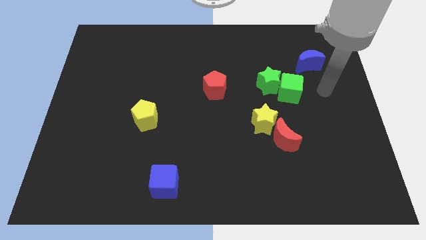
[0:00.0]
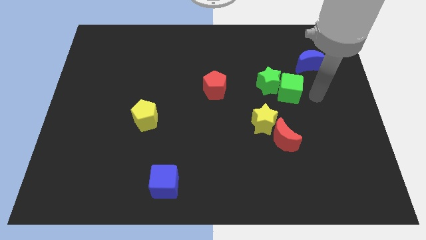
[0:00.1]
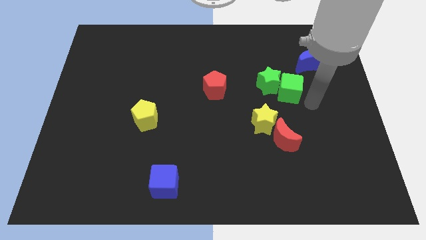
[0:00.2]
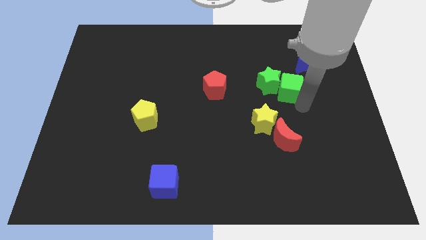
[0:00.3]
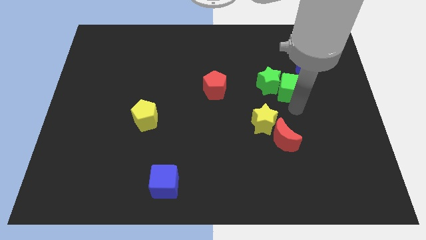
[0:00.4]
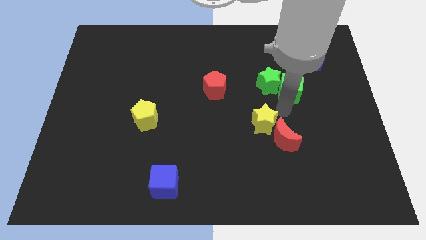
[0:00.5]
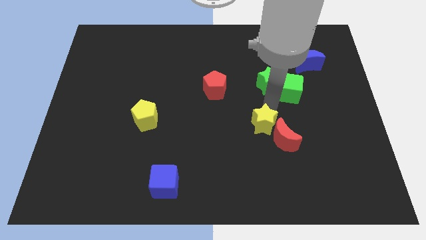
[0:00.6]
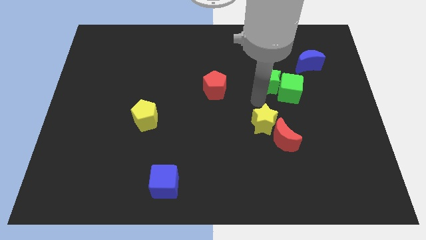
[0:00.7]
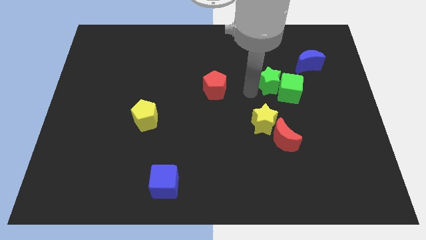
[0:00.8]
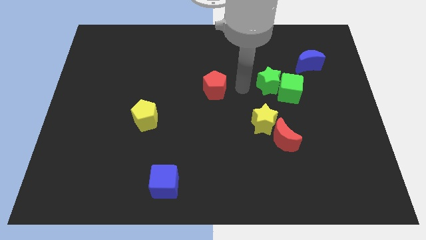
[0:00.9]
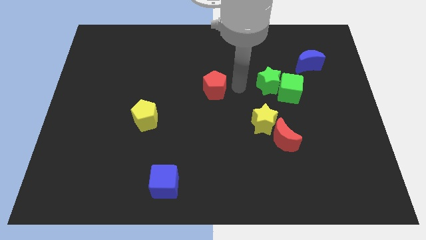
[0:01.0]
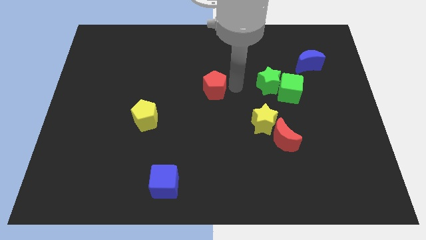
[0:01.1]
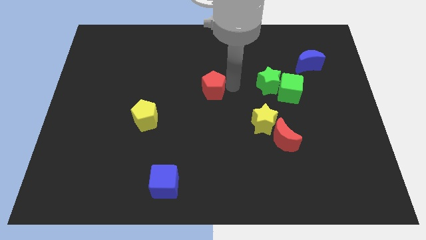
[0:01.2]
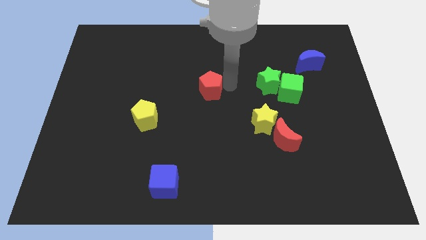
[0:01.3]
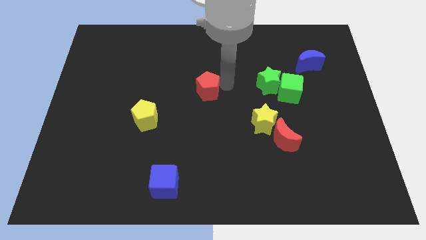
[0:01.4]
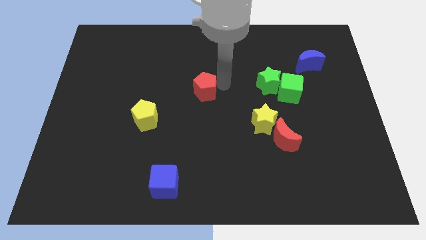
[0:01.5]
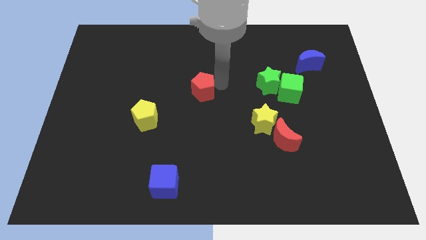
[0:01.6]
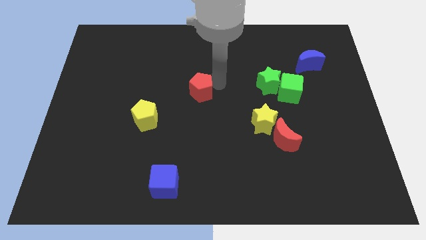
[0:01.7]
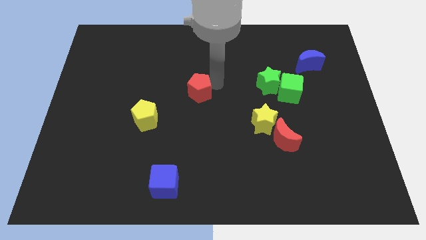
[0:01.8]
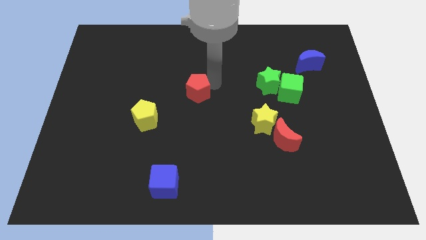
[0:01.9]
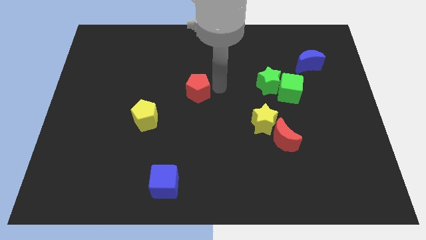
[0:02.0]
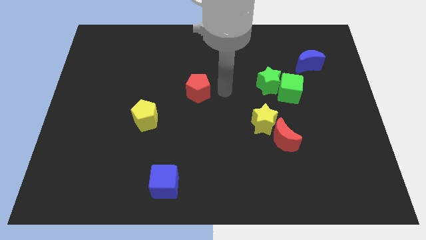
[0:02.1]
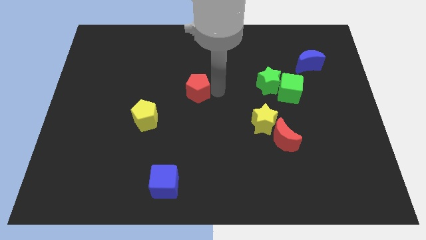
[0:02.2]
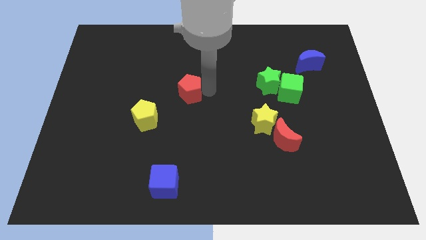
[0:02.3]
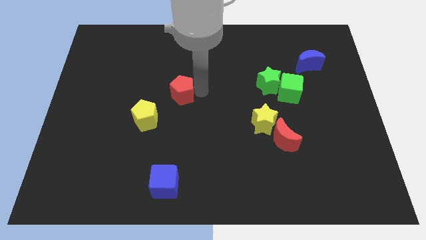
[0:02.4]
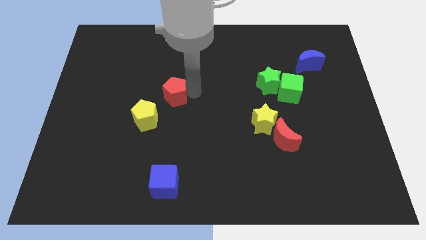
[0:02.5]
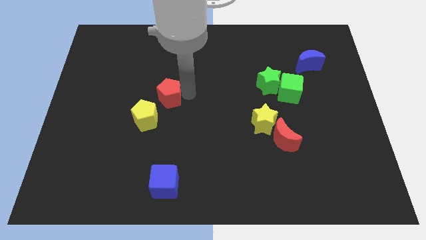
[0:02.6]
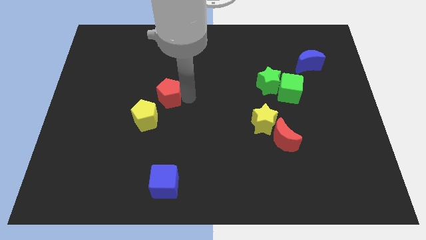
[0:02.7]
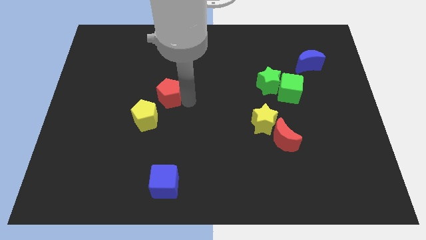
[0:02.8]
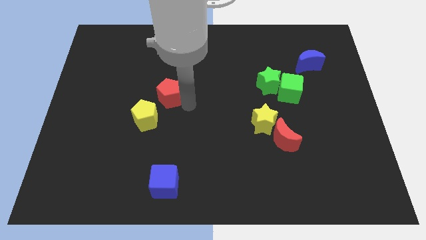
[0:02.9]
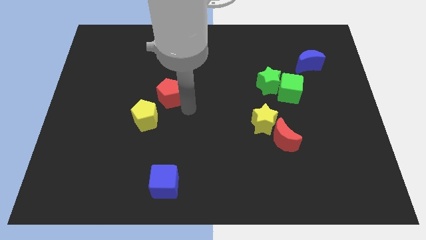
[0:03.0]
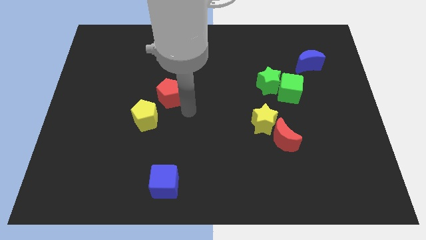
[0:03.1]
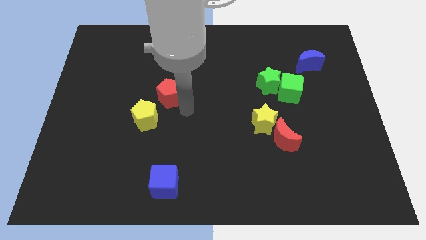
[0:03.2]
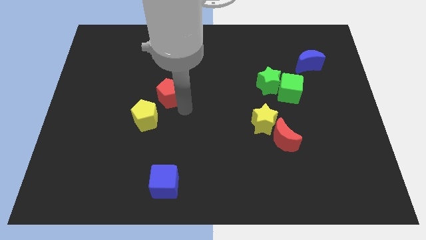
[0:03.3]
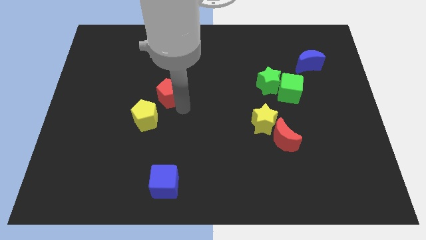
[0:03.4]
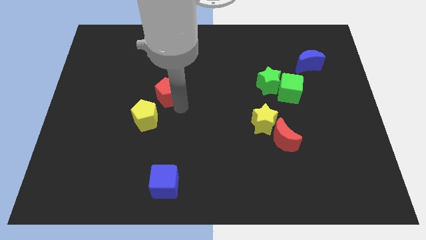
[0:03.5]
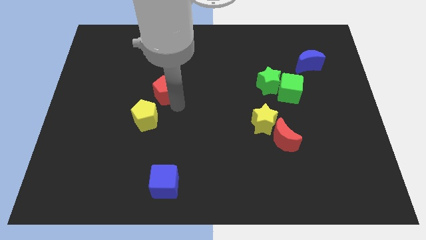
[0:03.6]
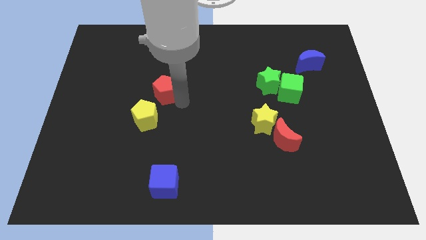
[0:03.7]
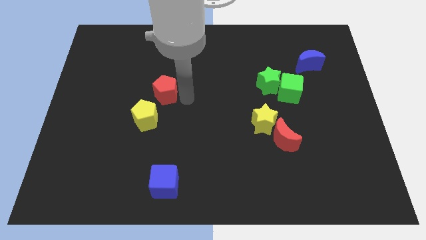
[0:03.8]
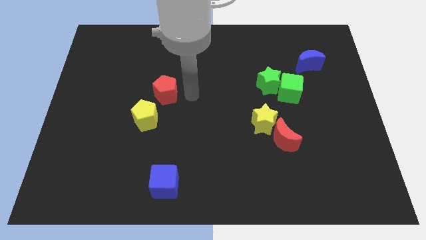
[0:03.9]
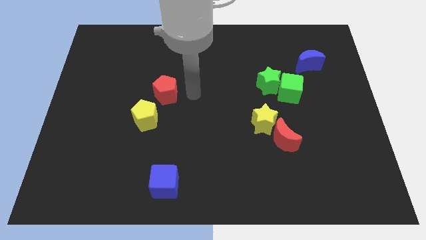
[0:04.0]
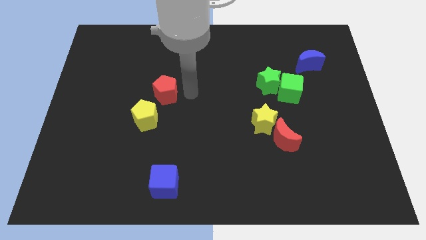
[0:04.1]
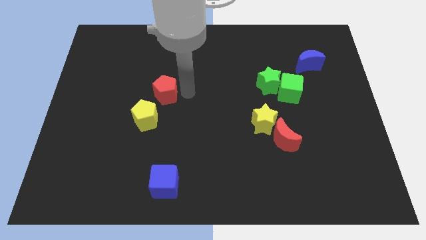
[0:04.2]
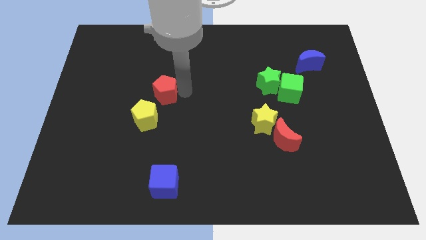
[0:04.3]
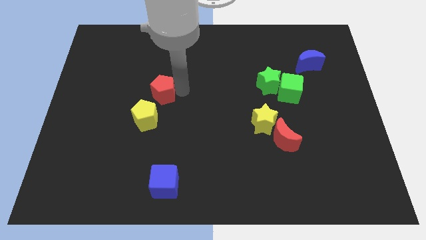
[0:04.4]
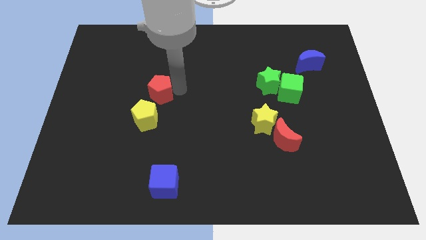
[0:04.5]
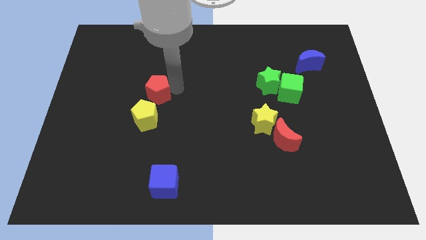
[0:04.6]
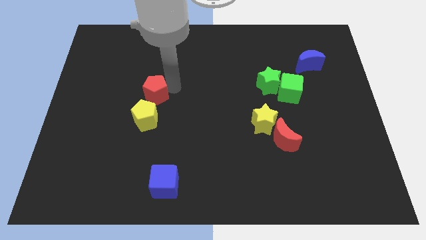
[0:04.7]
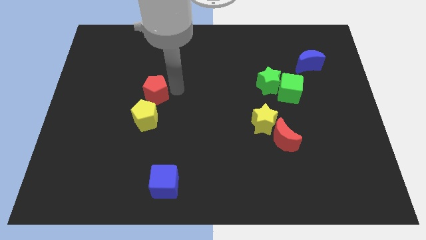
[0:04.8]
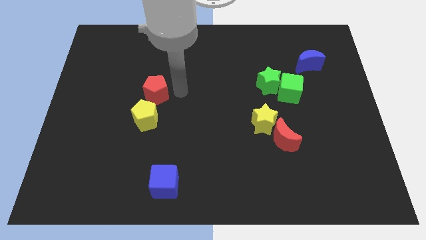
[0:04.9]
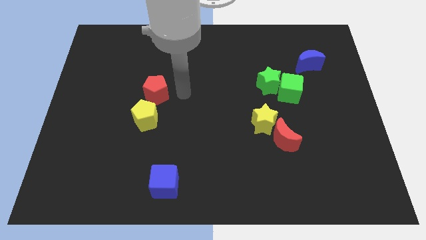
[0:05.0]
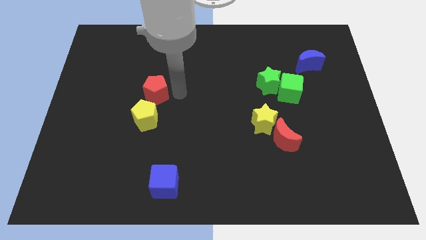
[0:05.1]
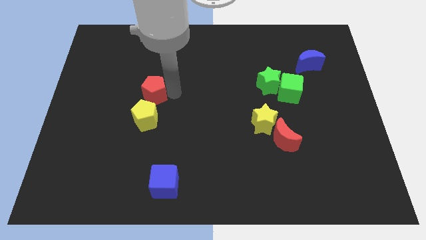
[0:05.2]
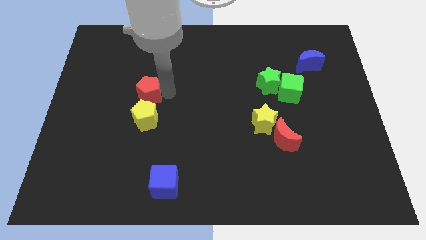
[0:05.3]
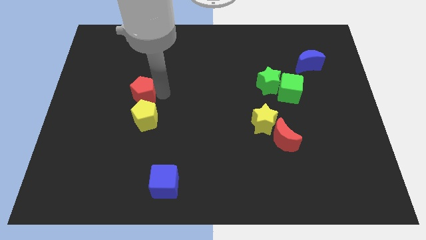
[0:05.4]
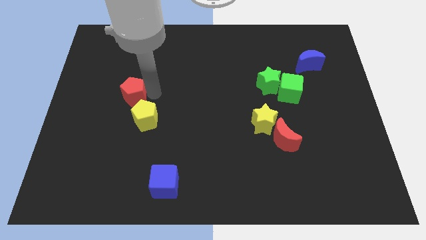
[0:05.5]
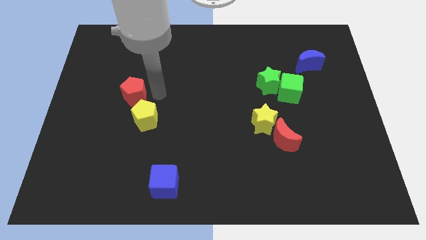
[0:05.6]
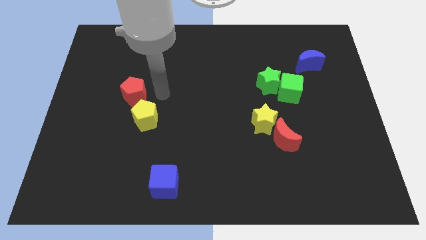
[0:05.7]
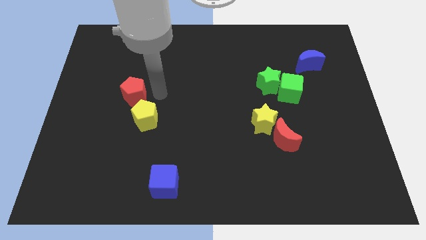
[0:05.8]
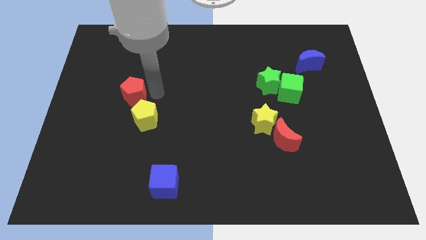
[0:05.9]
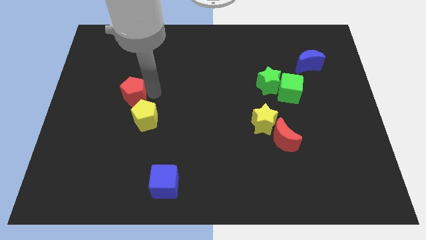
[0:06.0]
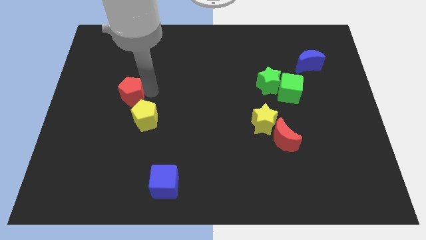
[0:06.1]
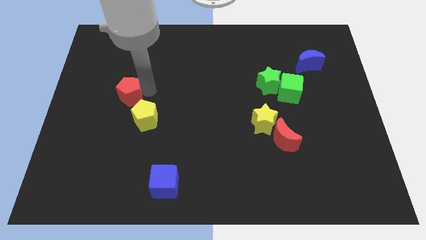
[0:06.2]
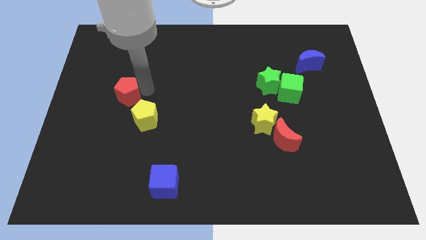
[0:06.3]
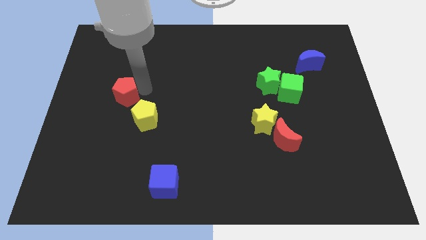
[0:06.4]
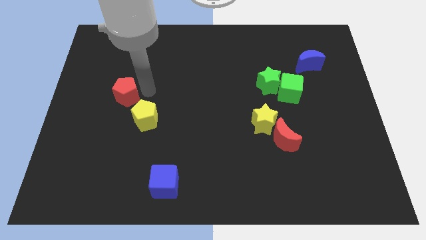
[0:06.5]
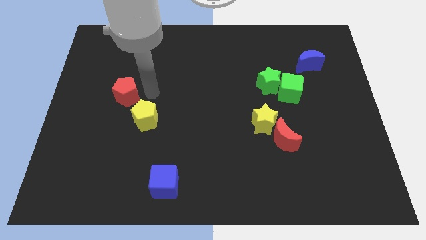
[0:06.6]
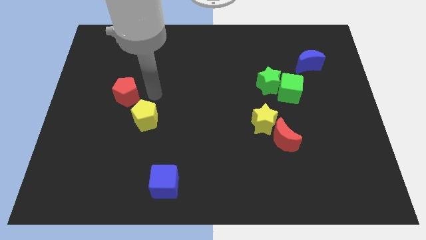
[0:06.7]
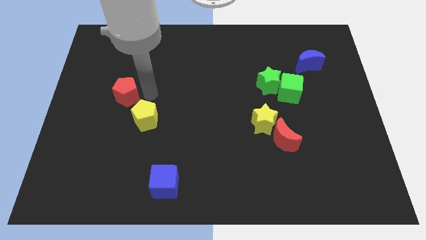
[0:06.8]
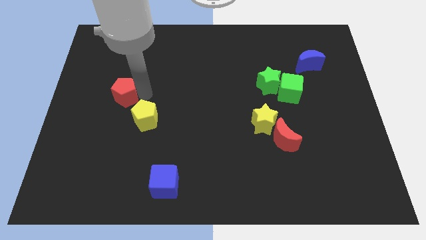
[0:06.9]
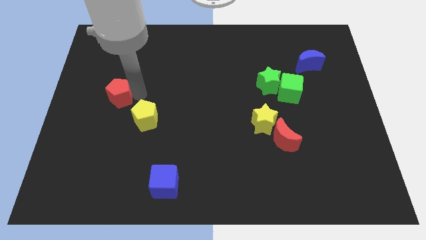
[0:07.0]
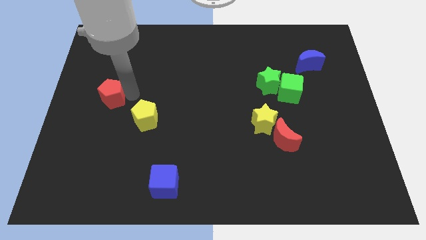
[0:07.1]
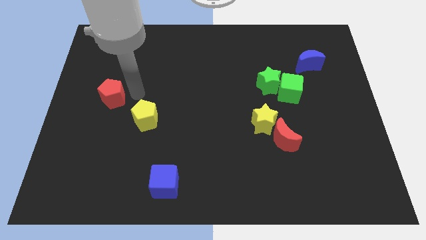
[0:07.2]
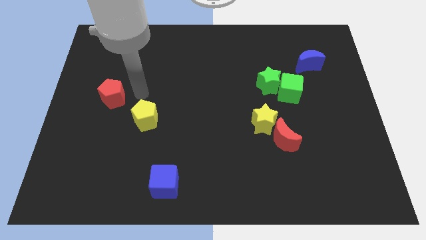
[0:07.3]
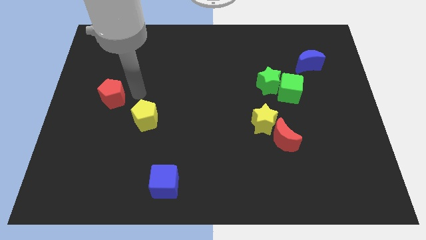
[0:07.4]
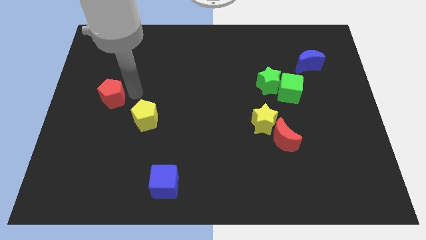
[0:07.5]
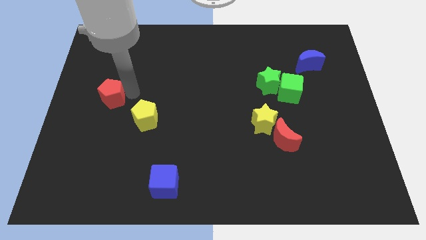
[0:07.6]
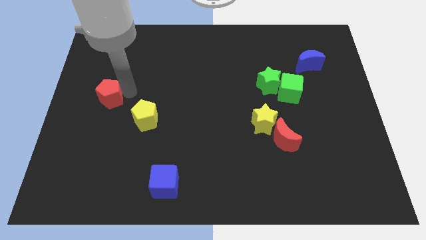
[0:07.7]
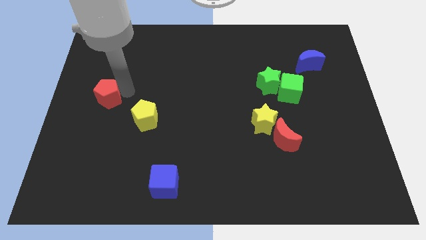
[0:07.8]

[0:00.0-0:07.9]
slide the red pentagon to the center left
